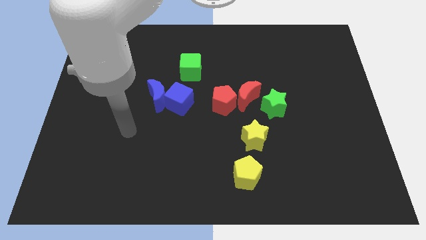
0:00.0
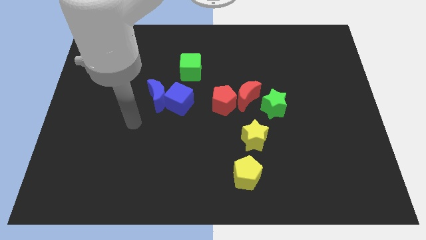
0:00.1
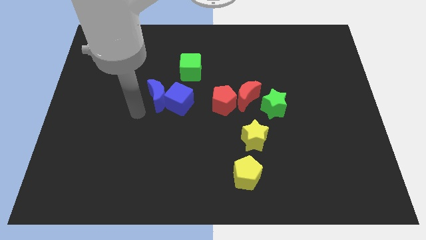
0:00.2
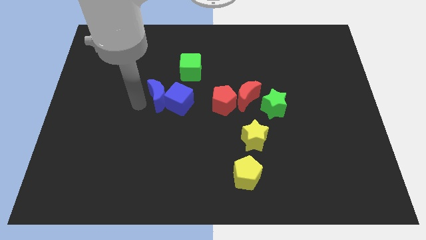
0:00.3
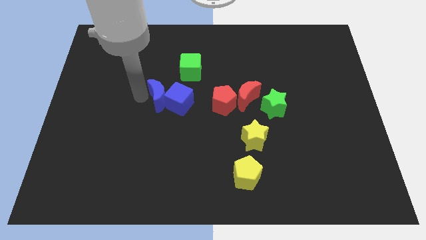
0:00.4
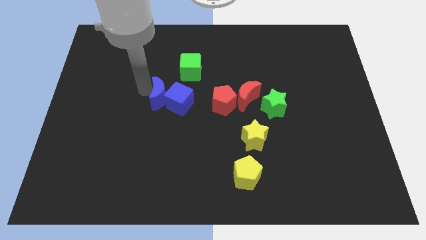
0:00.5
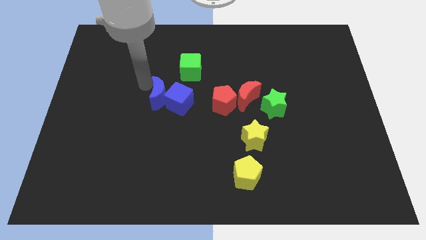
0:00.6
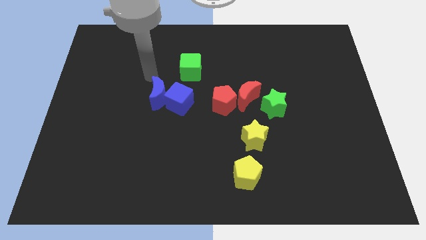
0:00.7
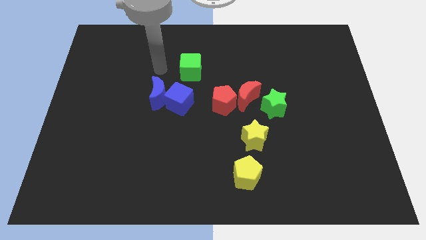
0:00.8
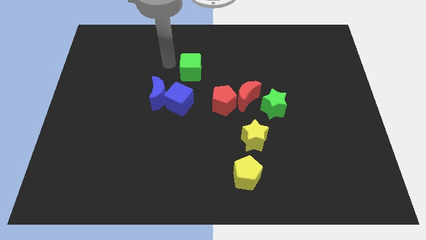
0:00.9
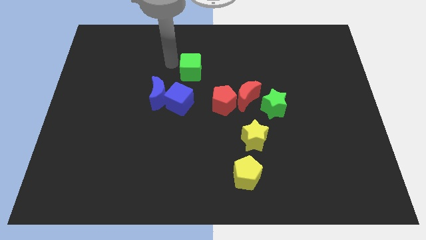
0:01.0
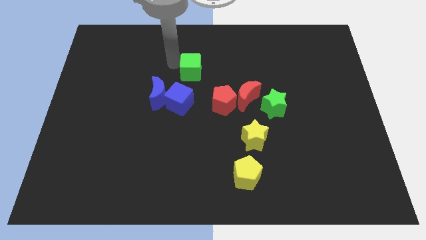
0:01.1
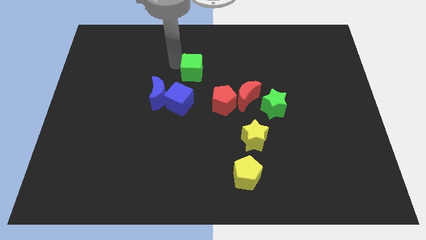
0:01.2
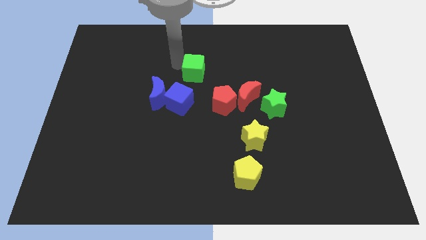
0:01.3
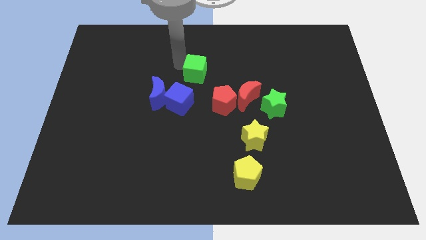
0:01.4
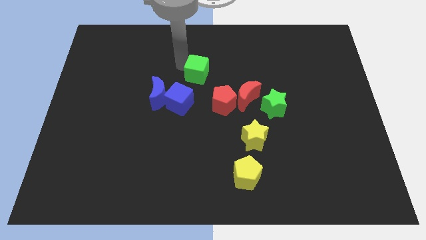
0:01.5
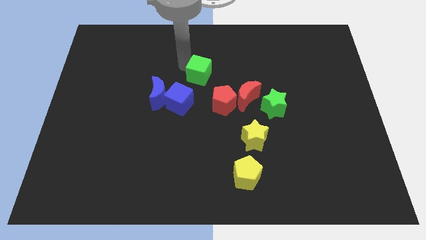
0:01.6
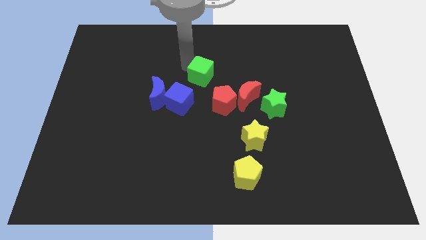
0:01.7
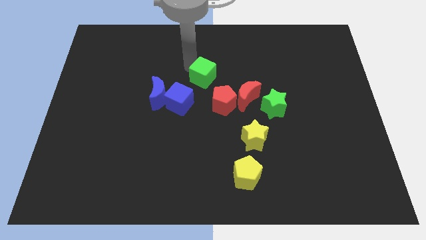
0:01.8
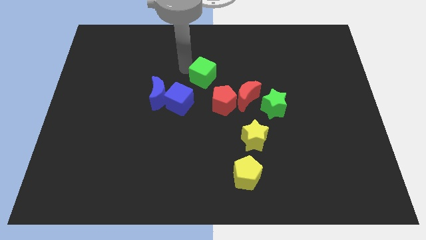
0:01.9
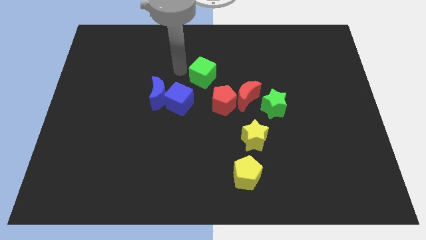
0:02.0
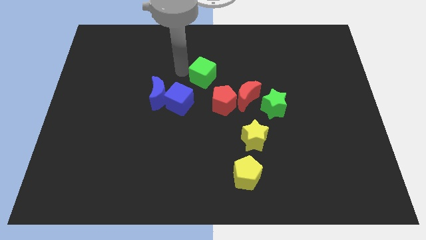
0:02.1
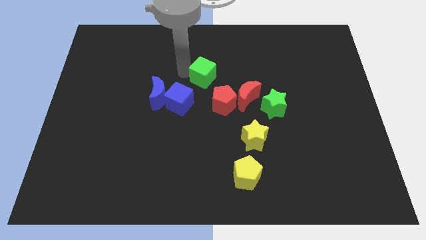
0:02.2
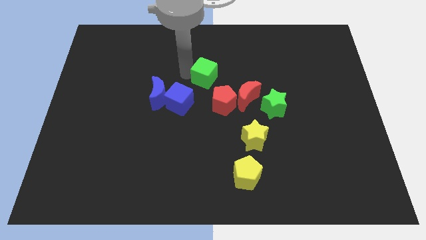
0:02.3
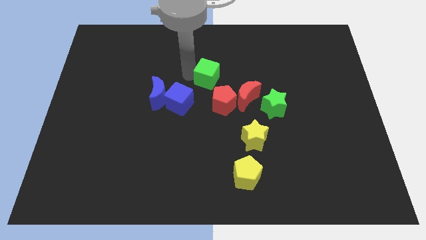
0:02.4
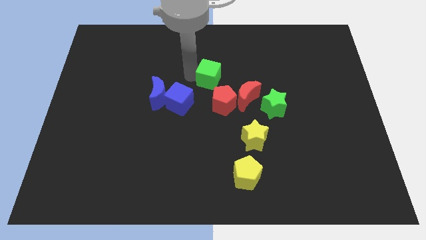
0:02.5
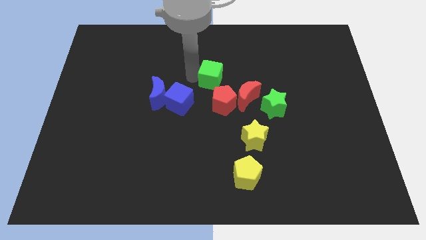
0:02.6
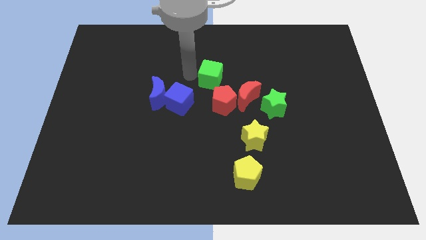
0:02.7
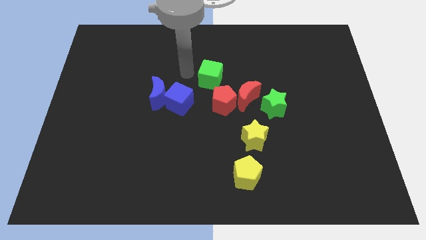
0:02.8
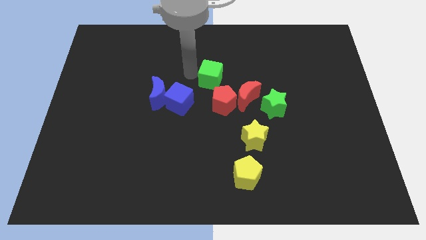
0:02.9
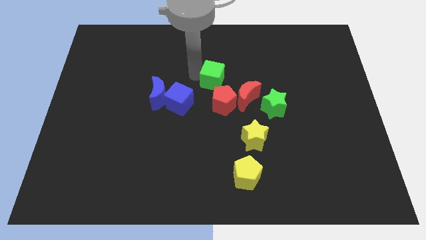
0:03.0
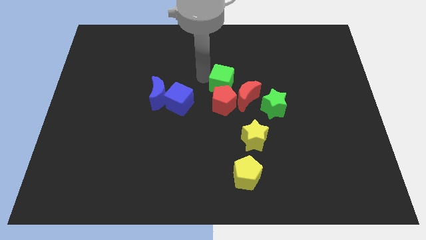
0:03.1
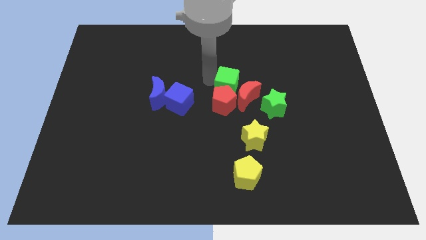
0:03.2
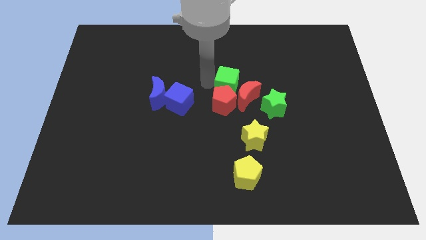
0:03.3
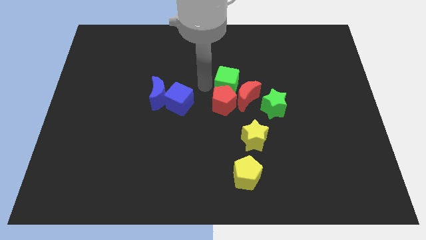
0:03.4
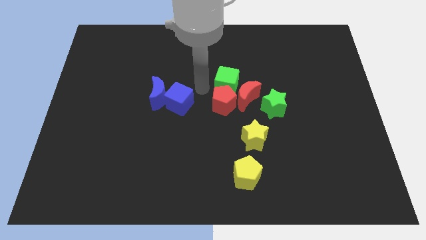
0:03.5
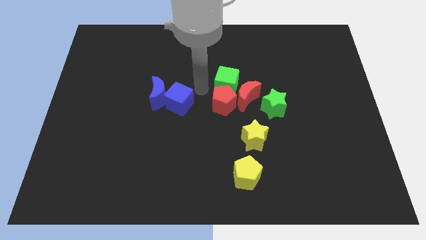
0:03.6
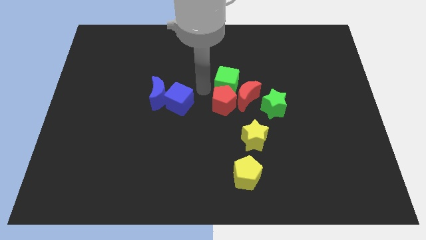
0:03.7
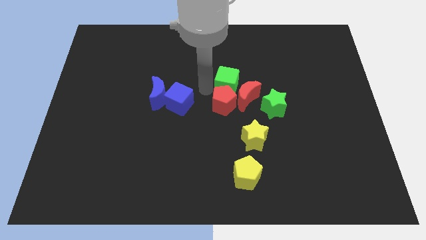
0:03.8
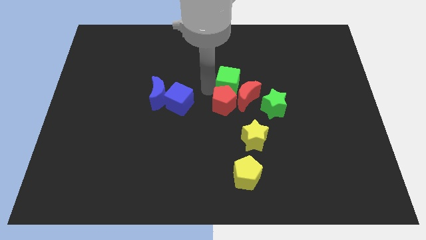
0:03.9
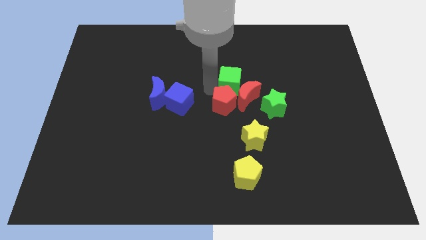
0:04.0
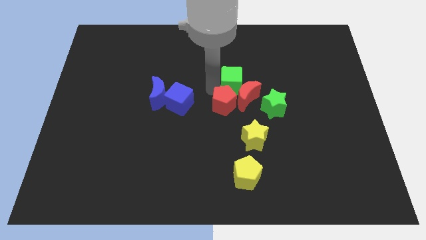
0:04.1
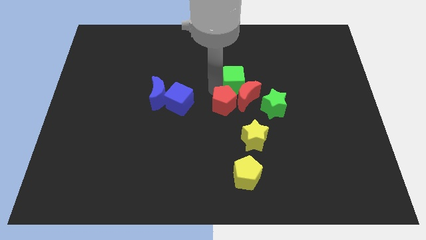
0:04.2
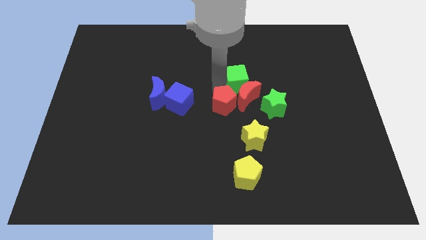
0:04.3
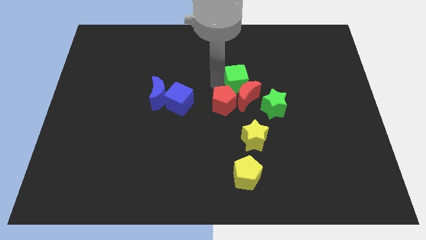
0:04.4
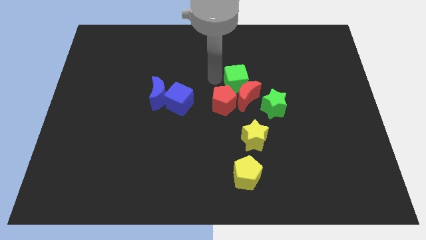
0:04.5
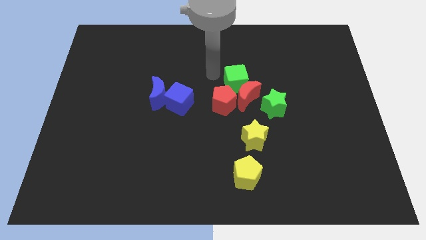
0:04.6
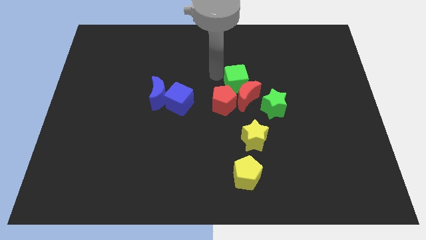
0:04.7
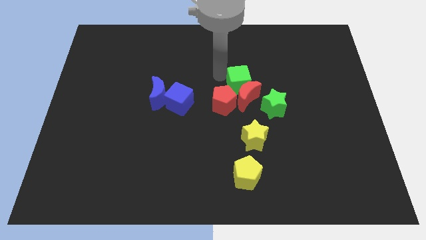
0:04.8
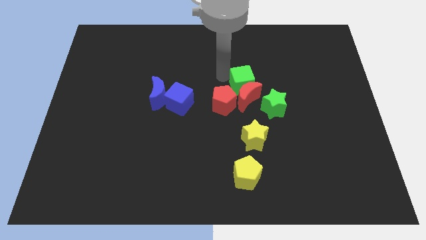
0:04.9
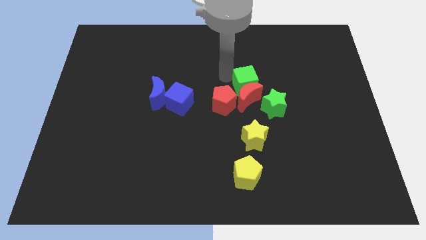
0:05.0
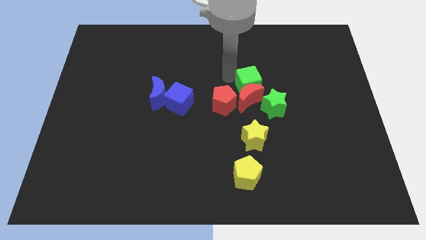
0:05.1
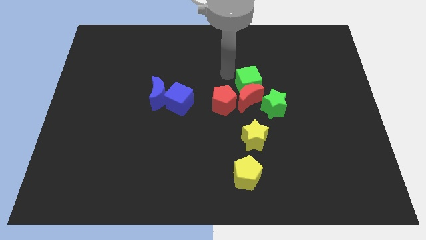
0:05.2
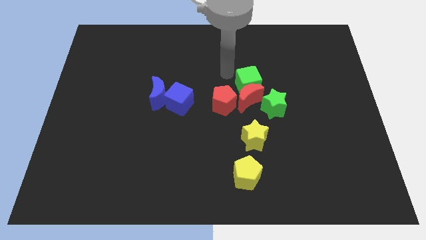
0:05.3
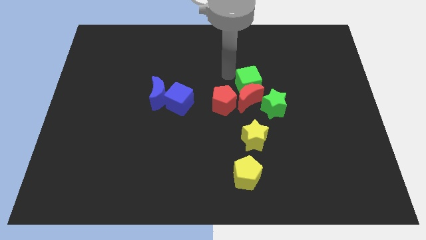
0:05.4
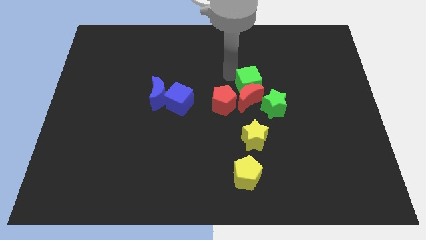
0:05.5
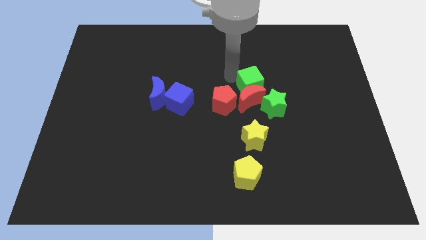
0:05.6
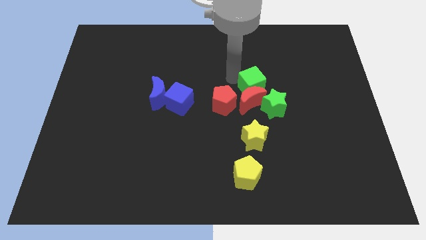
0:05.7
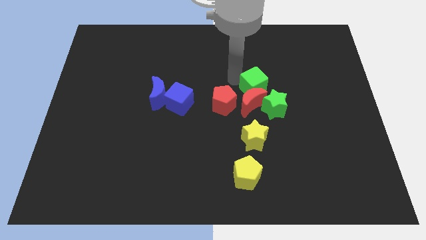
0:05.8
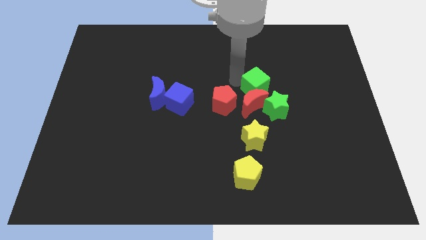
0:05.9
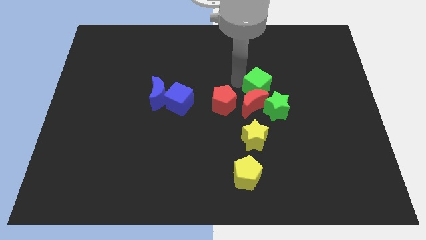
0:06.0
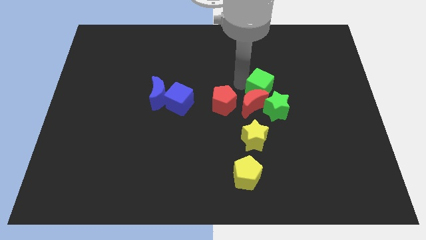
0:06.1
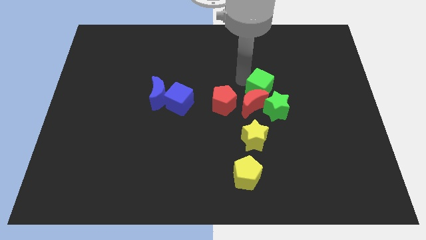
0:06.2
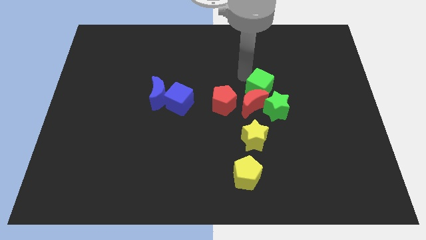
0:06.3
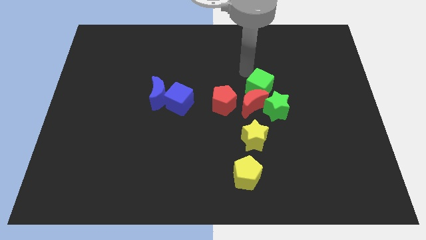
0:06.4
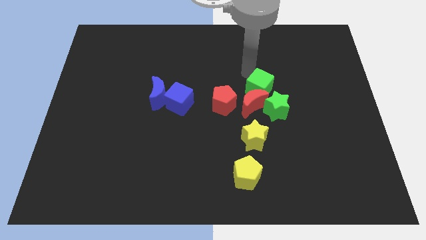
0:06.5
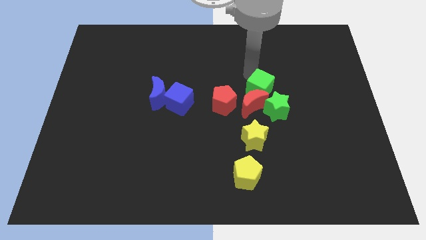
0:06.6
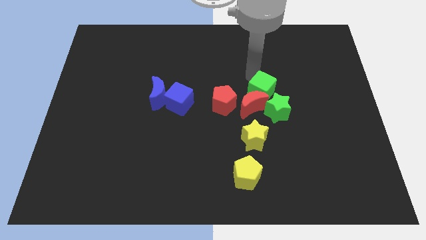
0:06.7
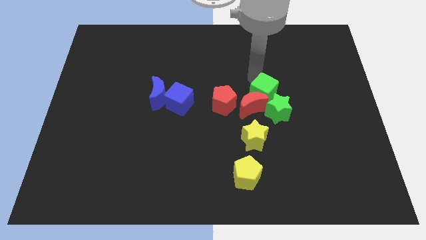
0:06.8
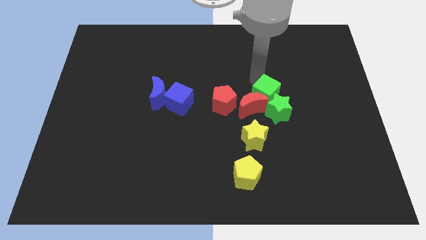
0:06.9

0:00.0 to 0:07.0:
slide the green cube next to the green star

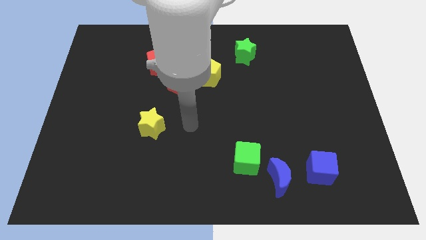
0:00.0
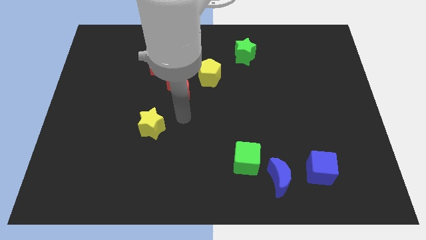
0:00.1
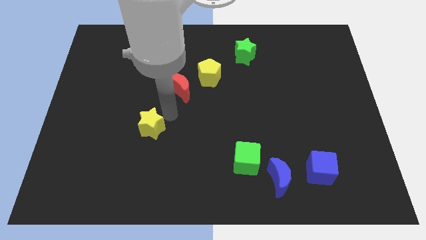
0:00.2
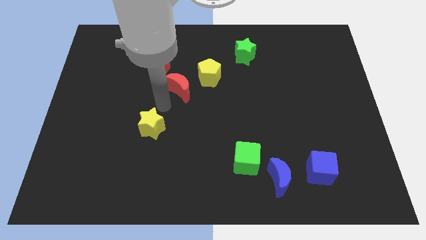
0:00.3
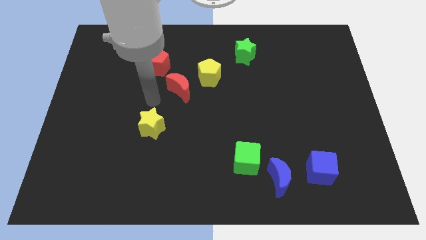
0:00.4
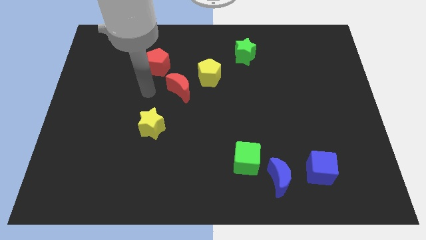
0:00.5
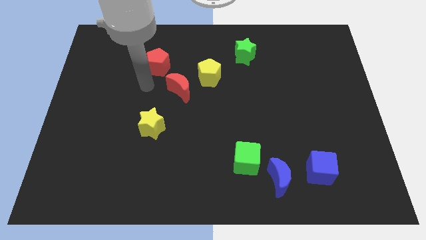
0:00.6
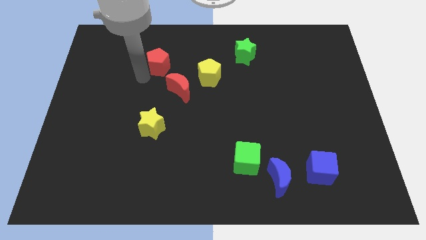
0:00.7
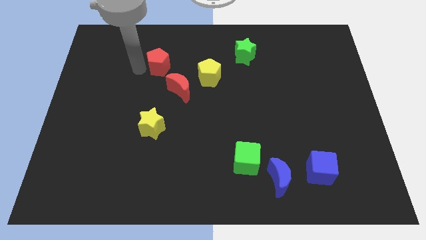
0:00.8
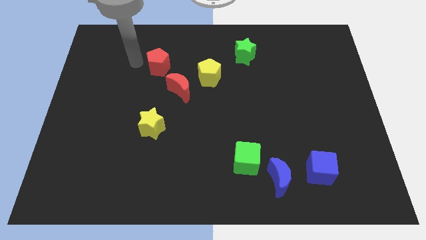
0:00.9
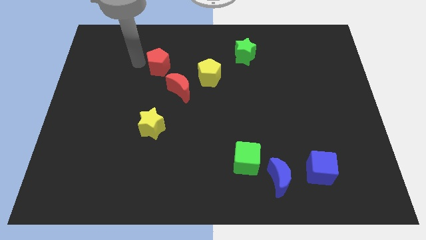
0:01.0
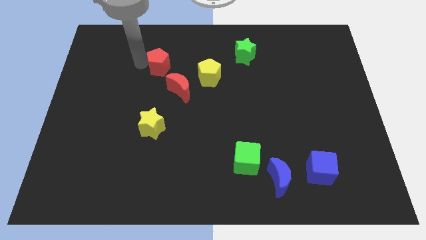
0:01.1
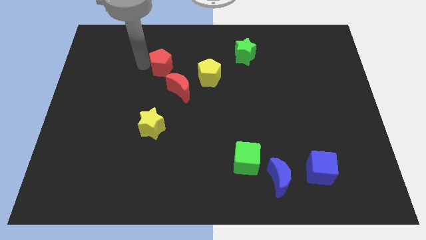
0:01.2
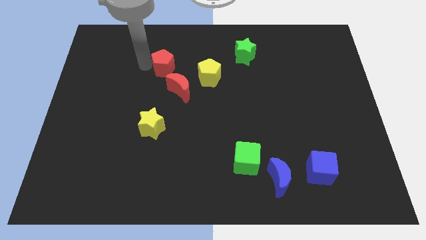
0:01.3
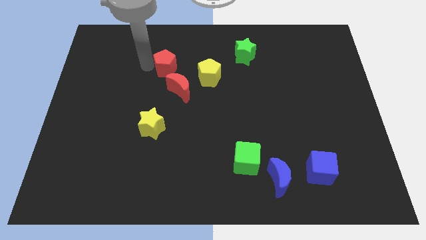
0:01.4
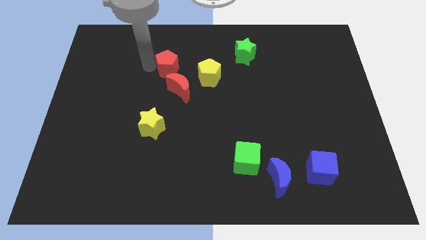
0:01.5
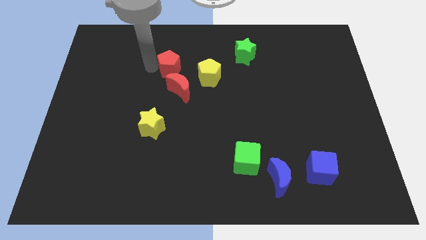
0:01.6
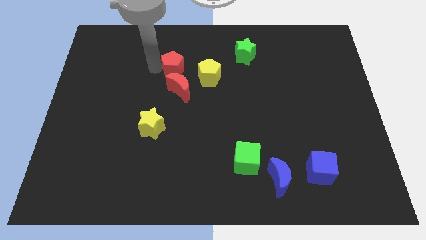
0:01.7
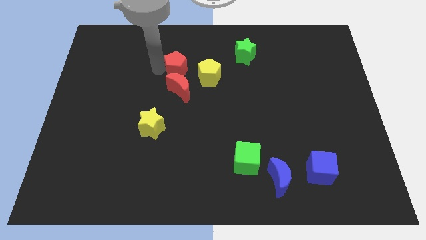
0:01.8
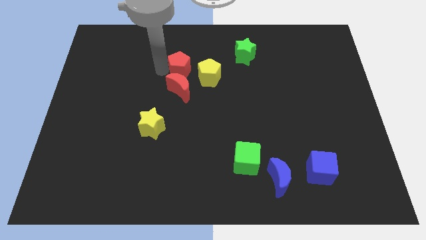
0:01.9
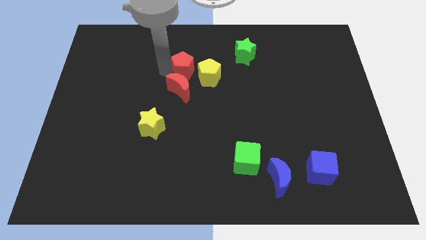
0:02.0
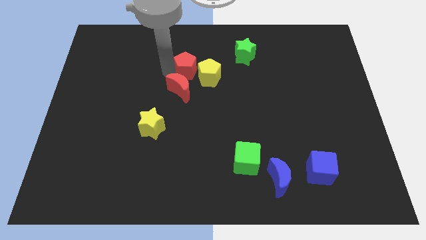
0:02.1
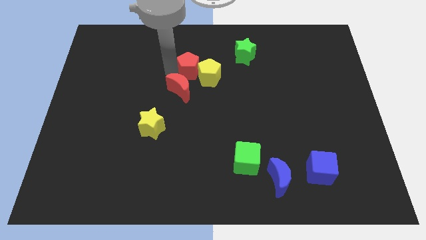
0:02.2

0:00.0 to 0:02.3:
put the red pentagon next to the yellow pentagon
